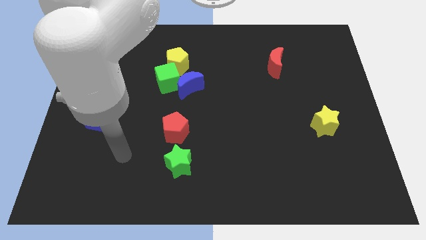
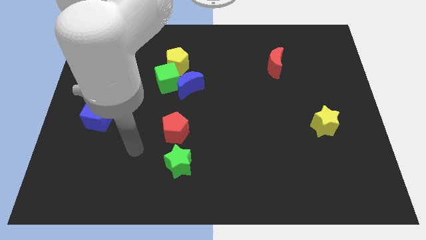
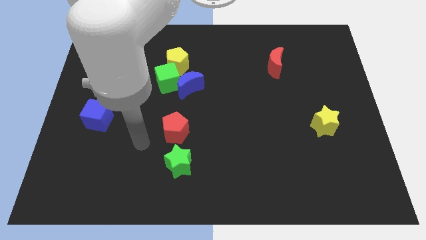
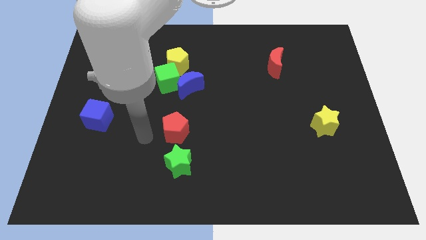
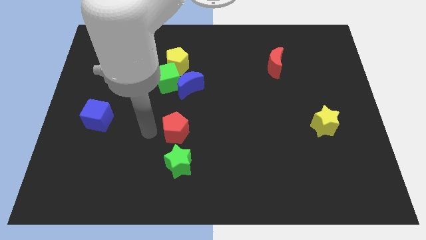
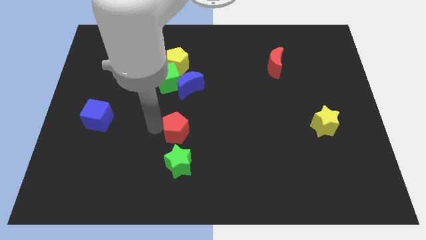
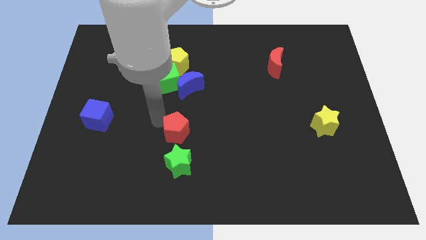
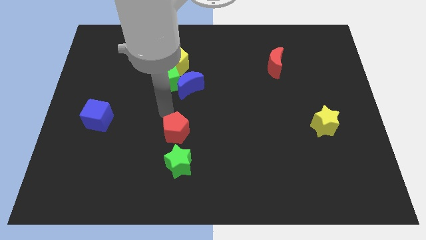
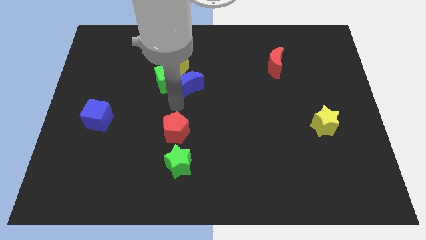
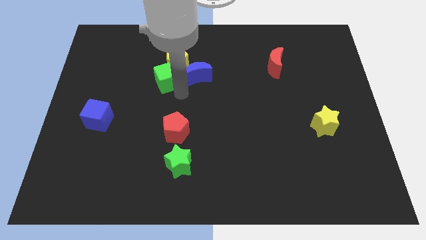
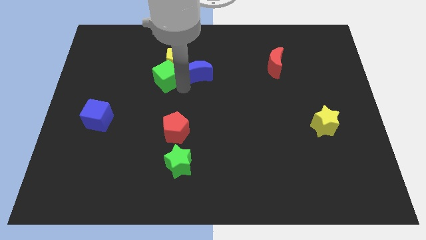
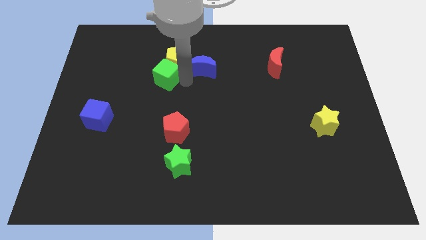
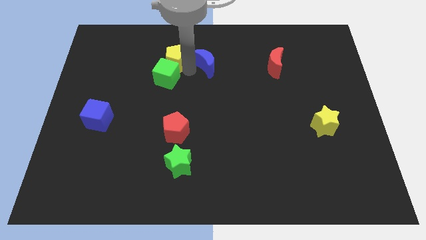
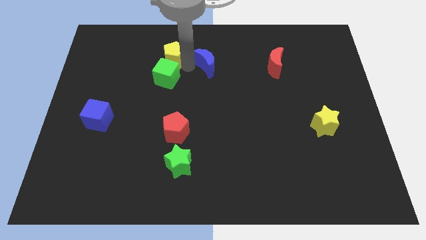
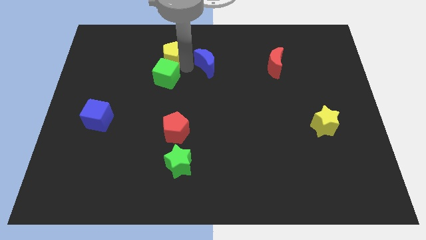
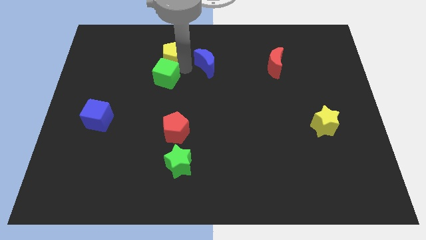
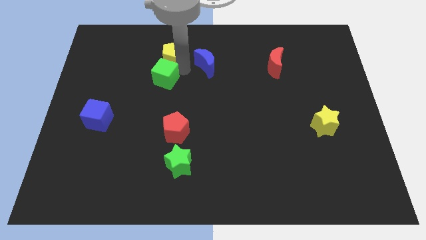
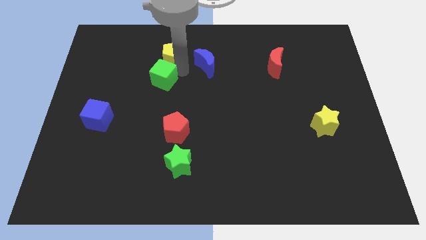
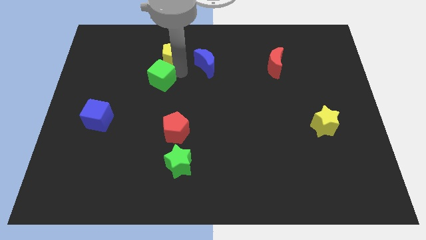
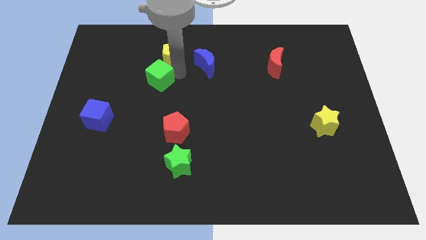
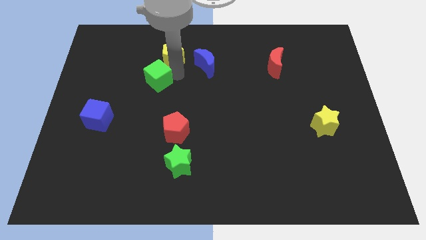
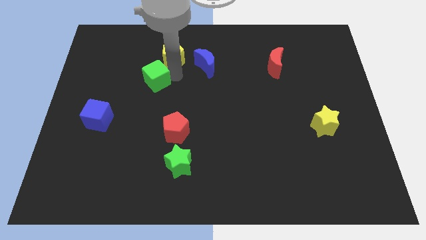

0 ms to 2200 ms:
separate the green cube from the blue moon and yellow pentagon

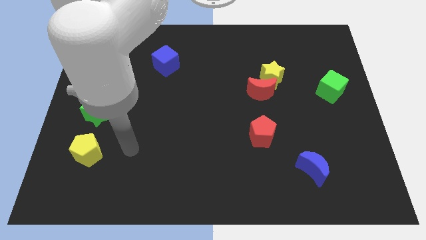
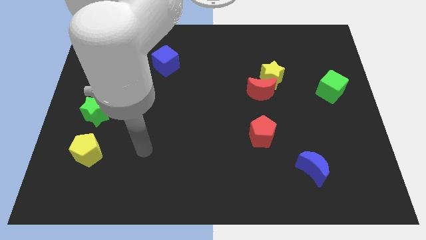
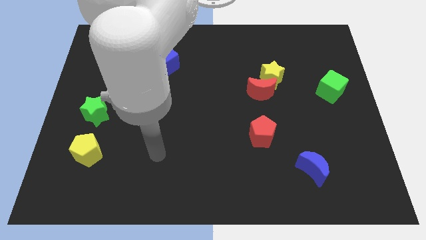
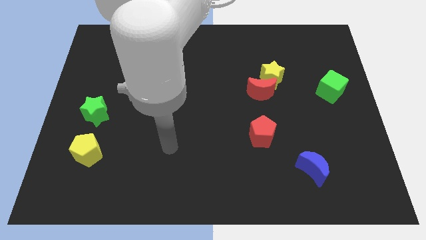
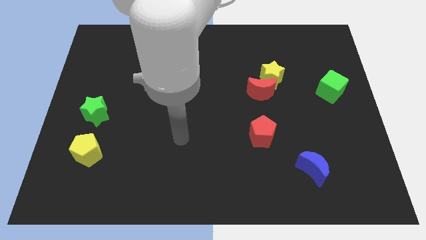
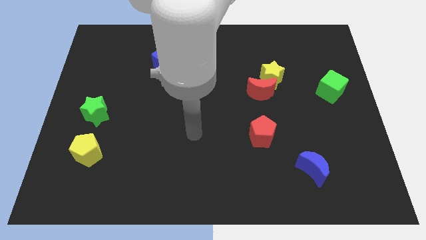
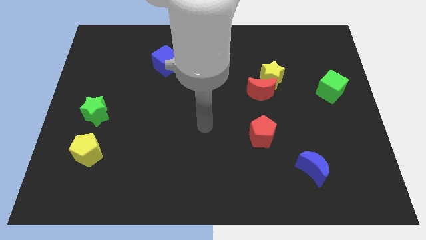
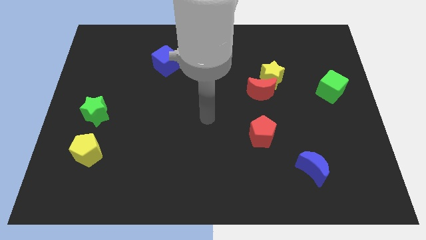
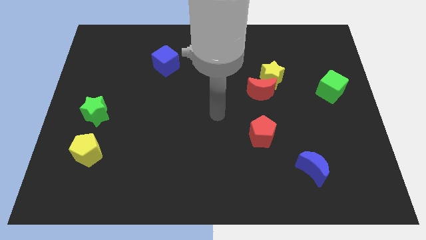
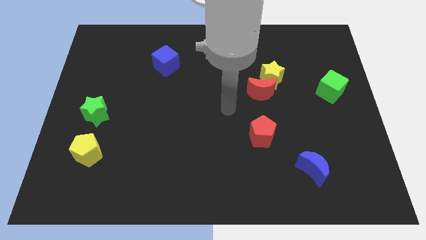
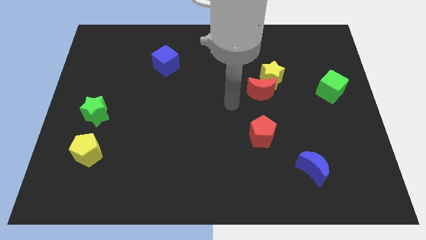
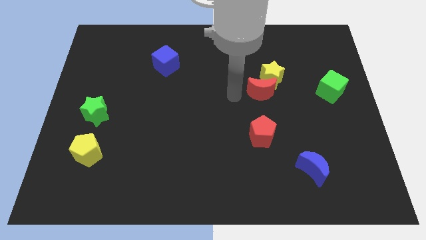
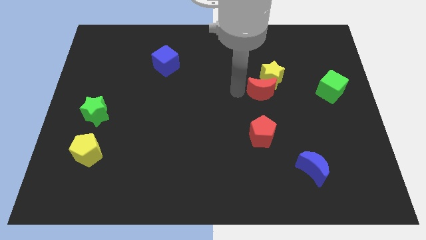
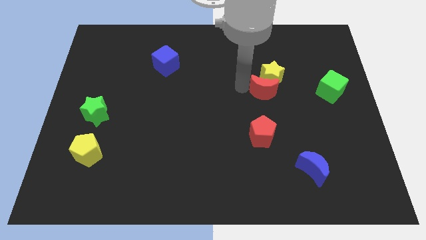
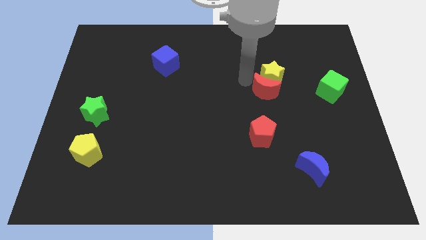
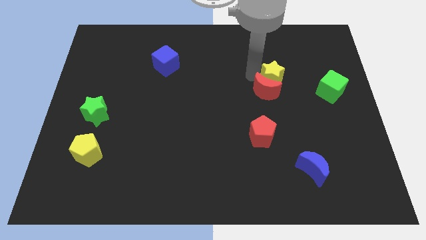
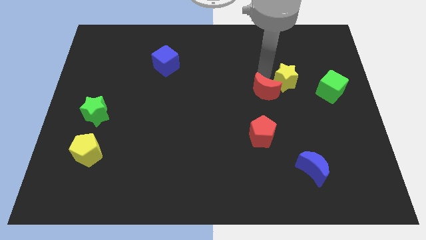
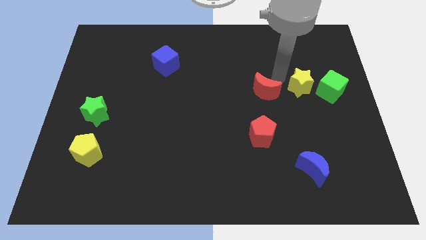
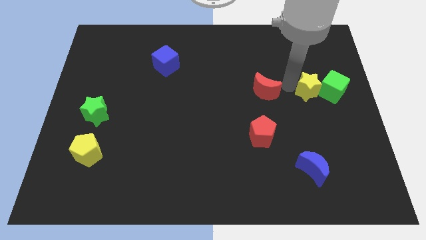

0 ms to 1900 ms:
move the red moon away from the yellow star

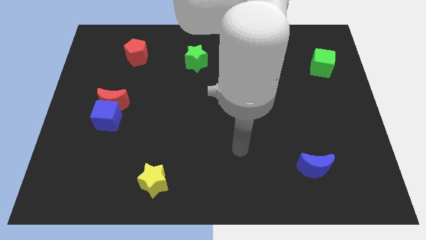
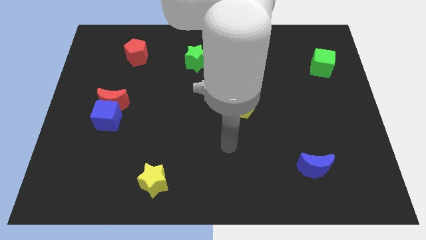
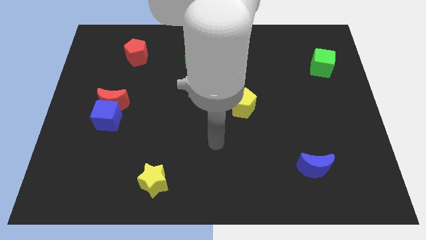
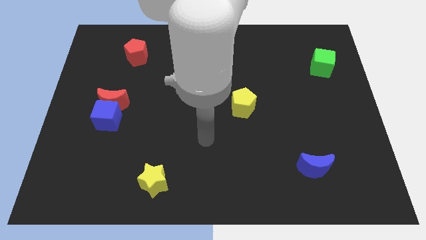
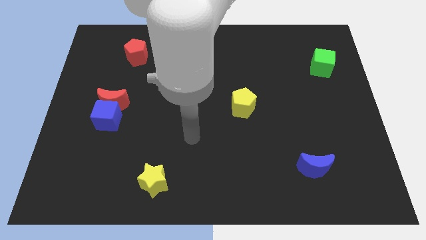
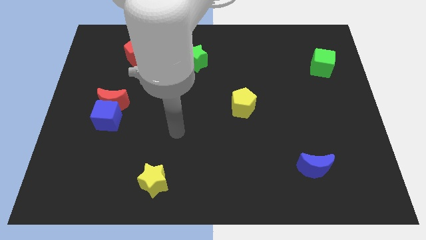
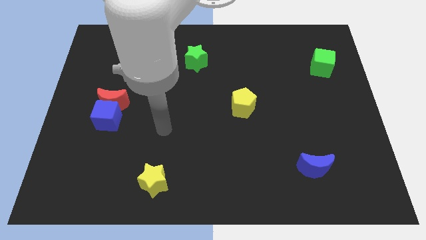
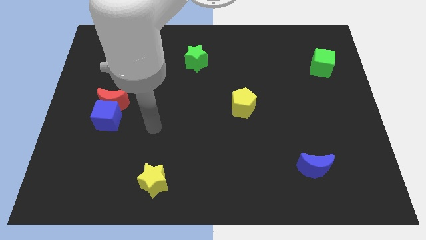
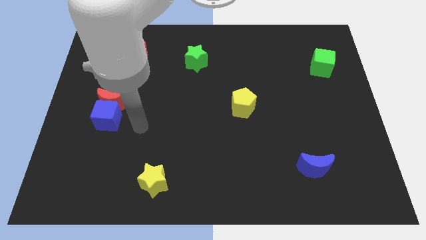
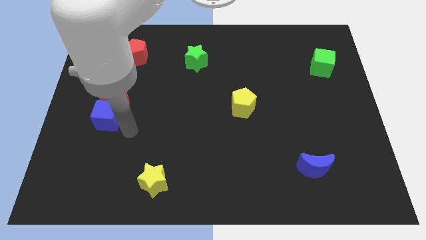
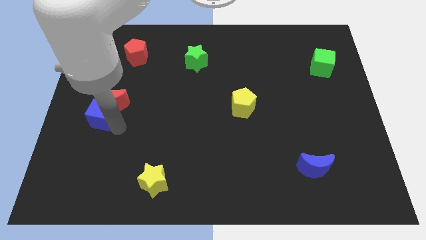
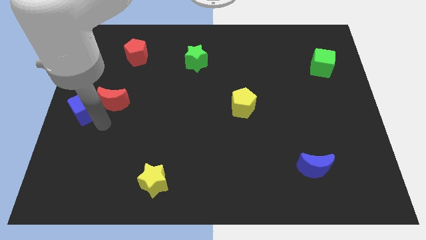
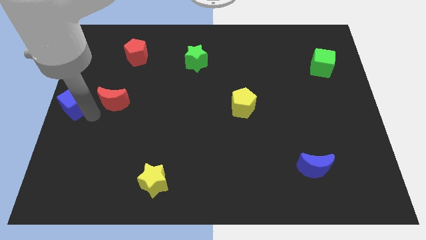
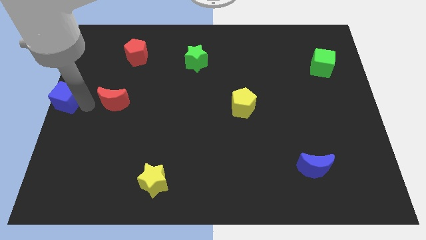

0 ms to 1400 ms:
move the red moon away from the blue cube

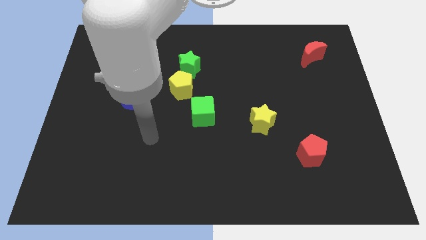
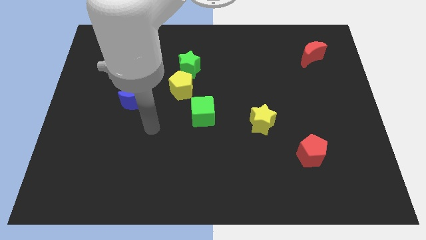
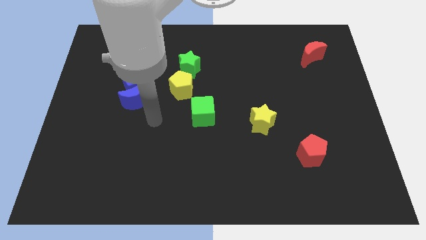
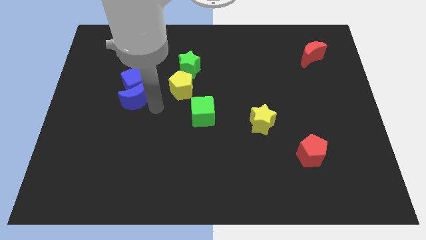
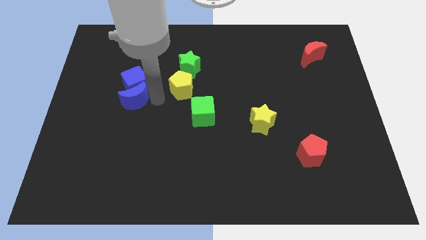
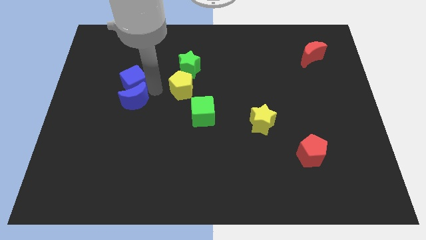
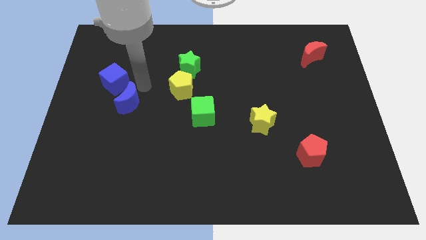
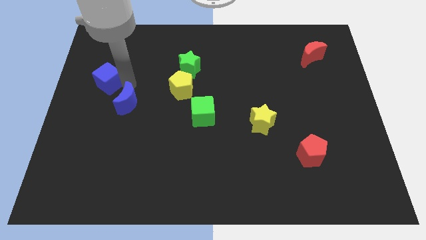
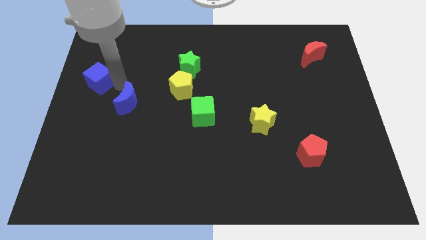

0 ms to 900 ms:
move the blue moon away from the blue cube

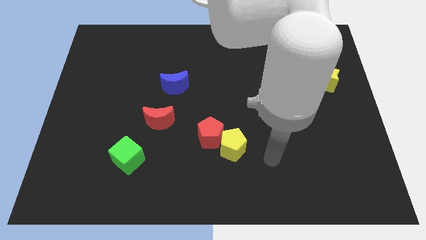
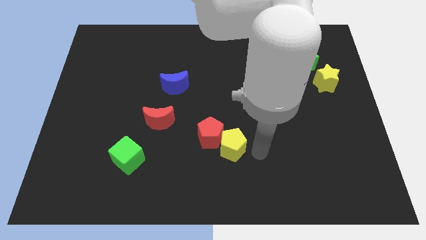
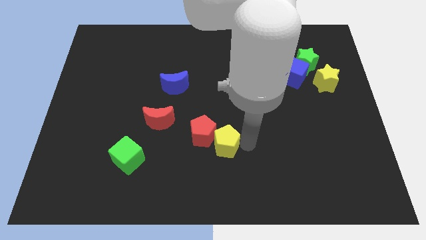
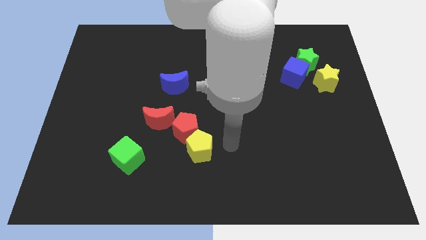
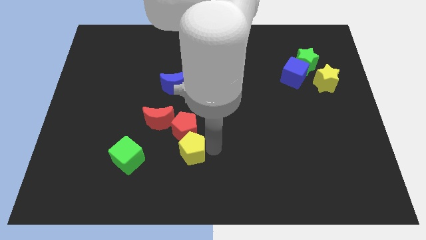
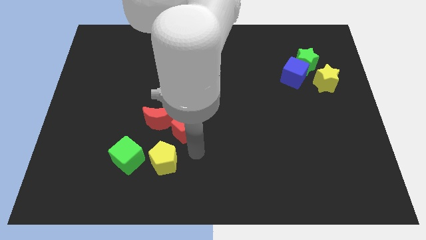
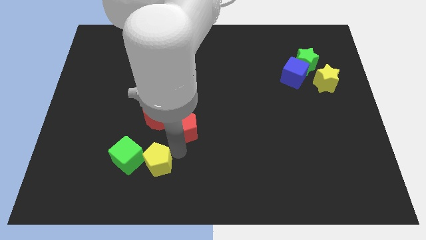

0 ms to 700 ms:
separate the red pentagon from the yellow pentagon

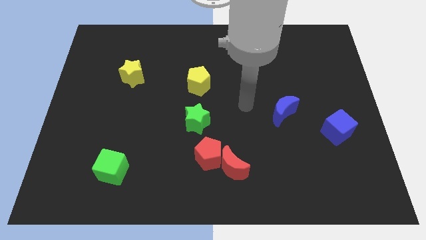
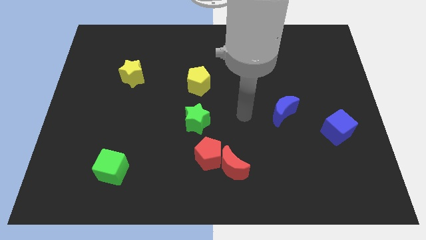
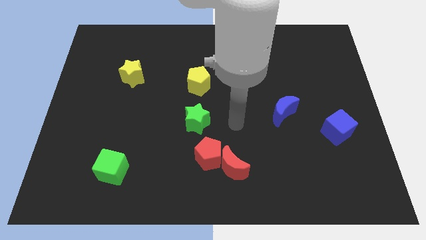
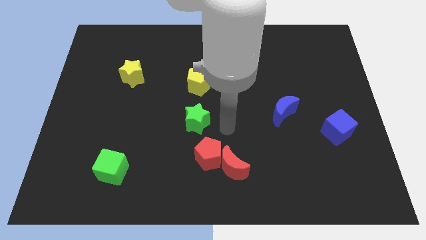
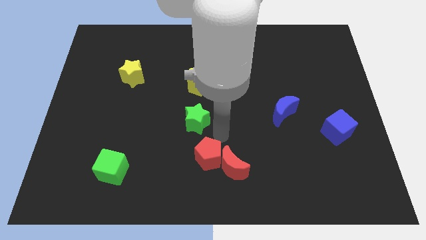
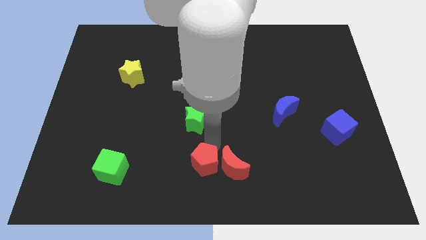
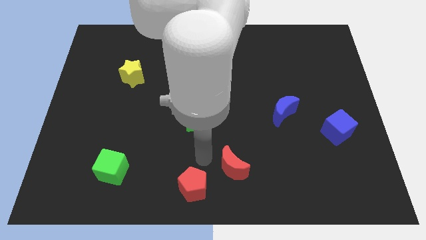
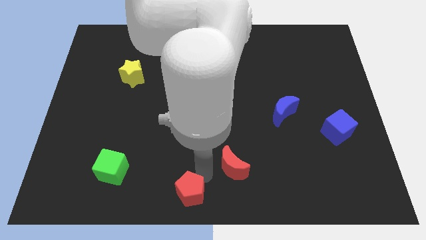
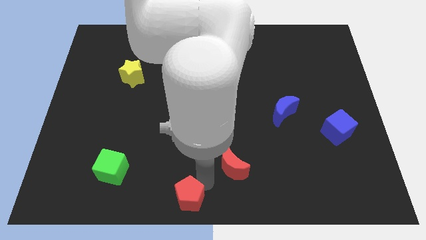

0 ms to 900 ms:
pull the red moon apart from the red pentagon

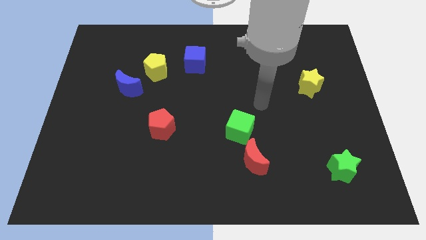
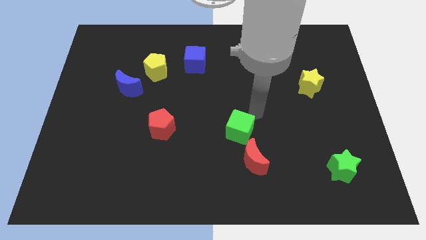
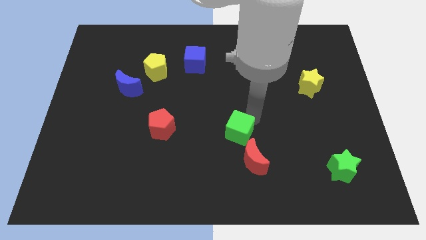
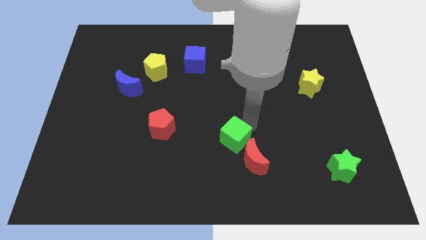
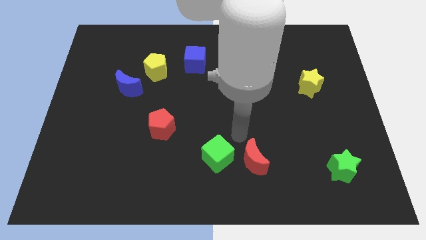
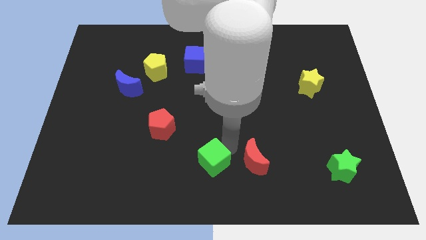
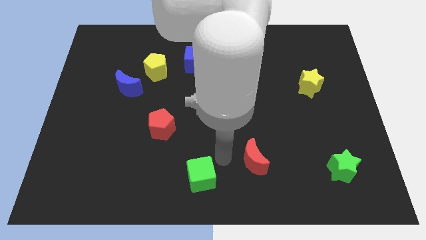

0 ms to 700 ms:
separate the red moon from the green cube

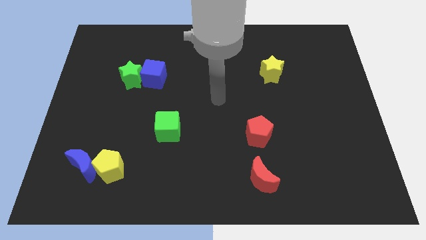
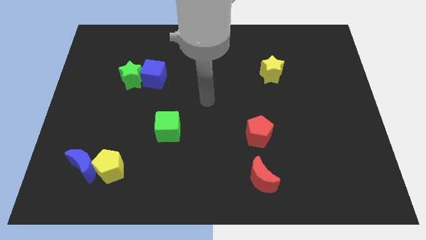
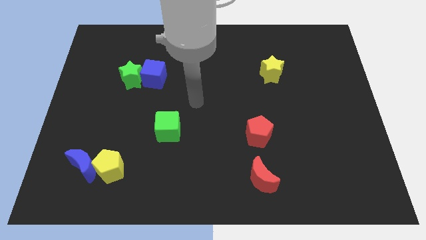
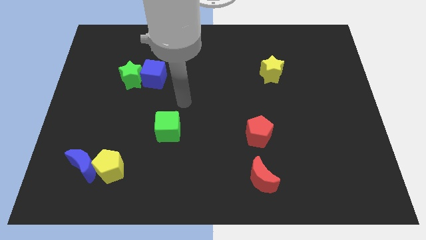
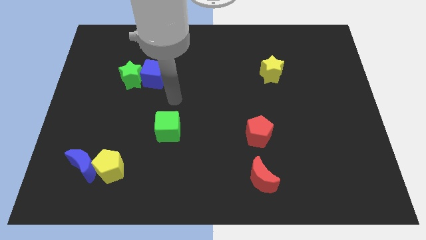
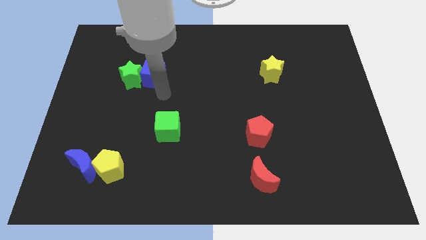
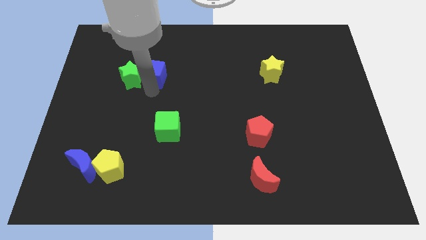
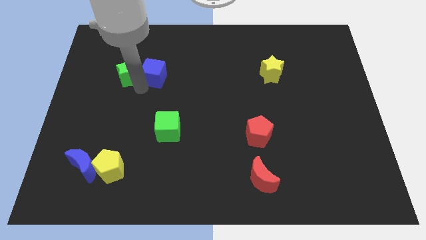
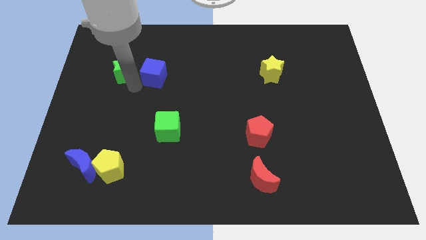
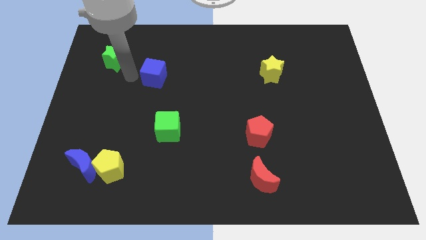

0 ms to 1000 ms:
separate the blue cube from the green star
